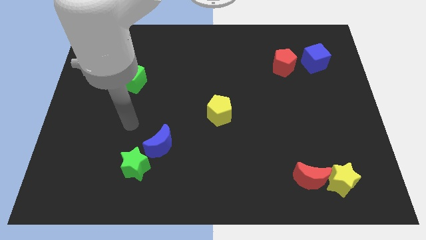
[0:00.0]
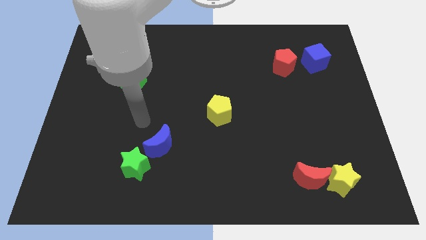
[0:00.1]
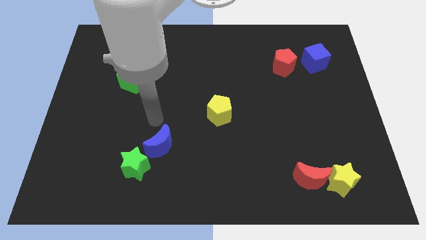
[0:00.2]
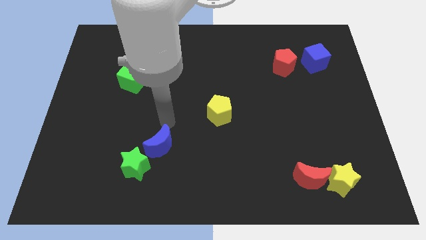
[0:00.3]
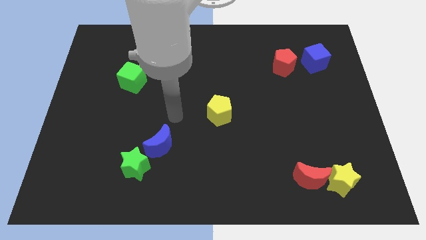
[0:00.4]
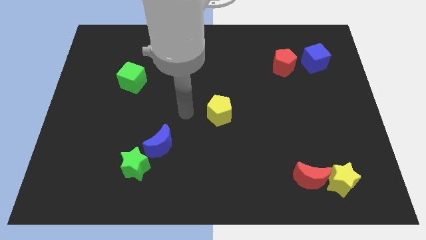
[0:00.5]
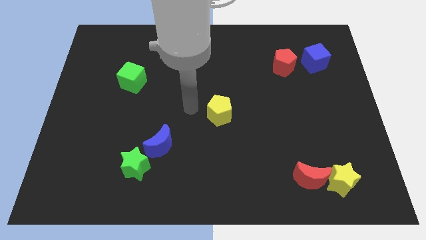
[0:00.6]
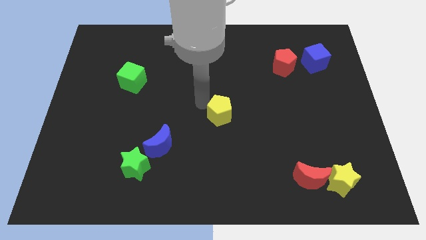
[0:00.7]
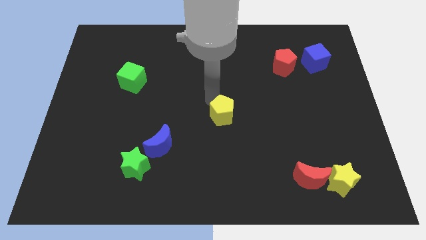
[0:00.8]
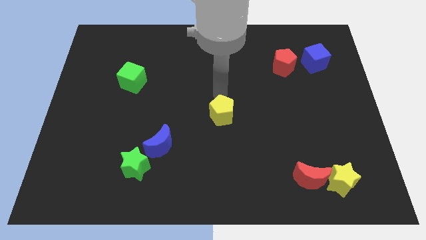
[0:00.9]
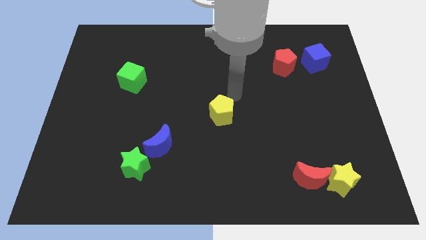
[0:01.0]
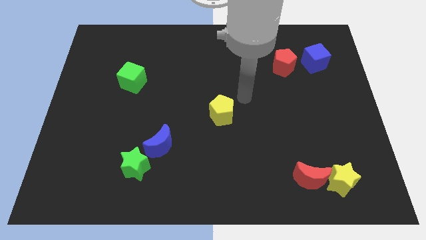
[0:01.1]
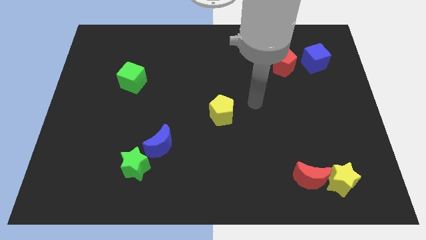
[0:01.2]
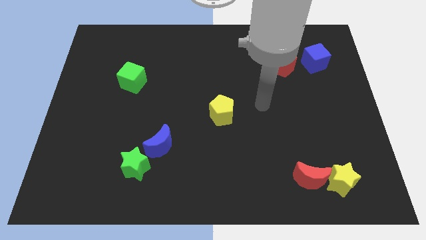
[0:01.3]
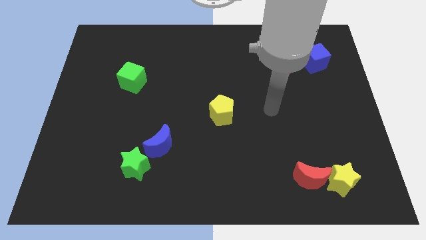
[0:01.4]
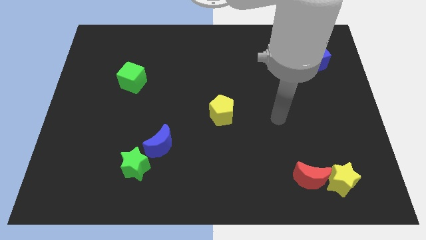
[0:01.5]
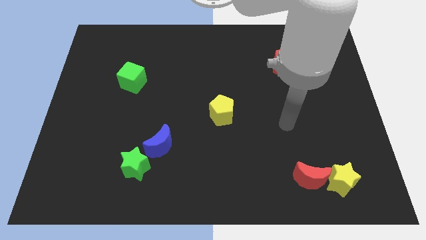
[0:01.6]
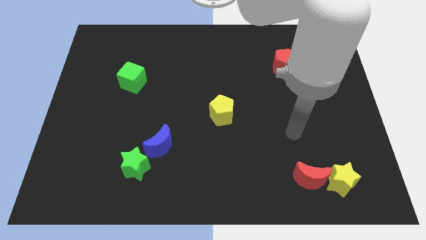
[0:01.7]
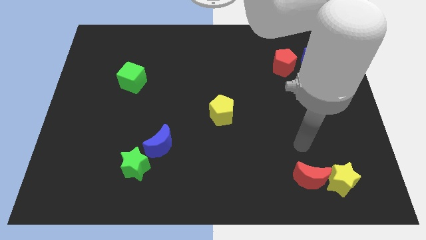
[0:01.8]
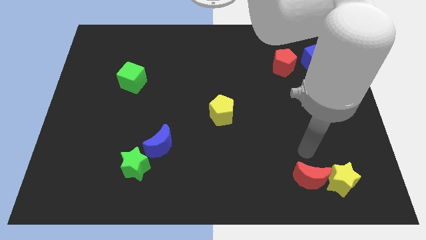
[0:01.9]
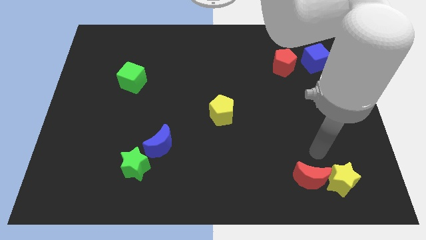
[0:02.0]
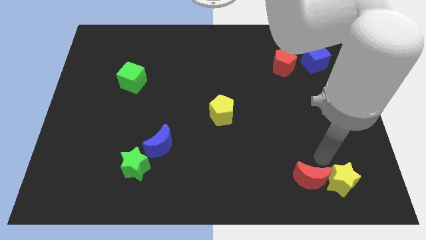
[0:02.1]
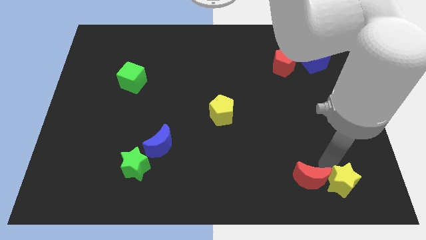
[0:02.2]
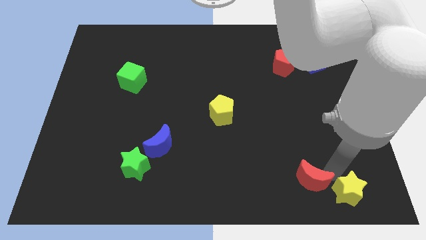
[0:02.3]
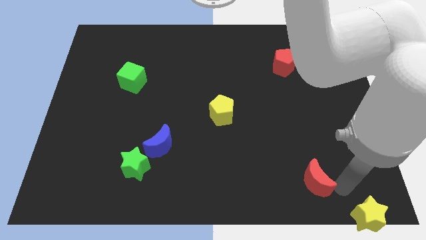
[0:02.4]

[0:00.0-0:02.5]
pull the red moon apart from the yellow star

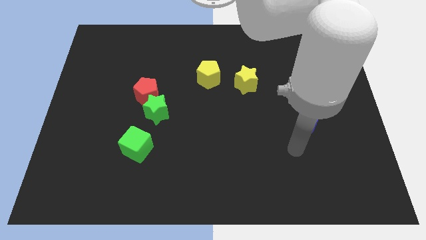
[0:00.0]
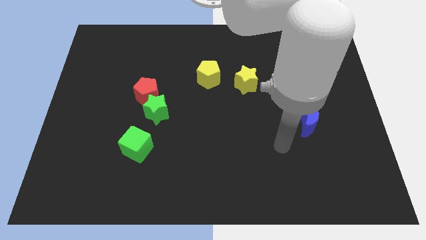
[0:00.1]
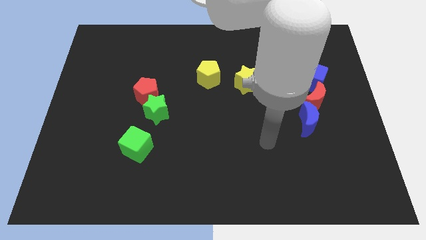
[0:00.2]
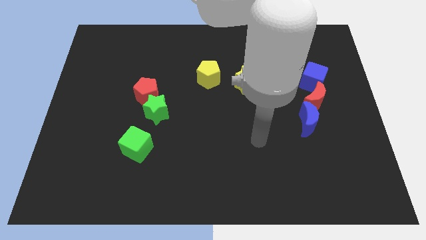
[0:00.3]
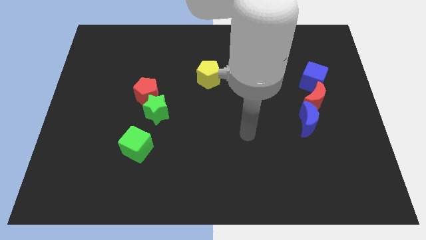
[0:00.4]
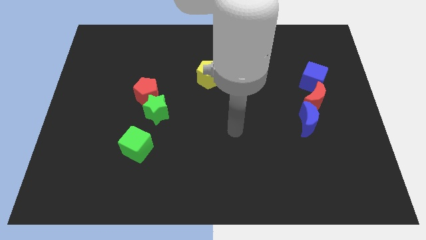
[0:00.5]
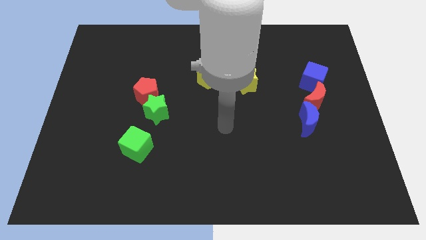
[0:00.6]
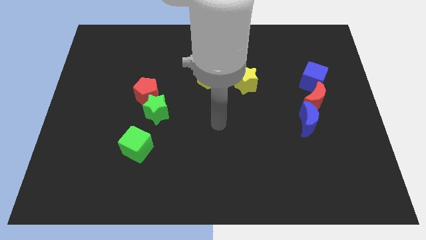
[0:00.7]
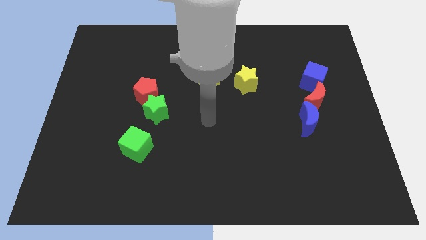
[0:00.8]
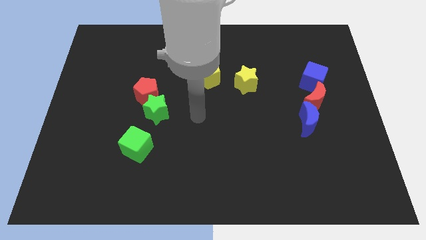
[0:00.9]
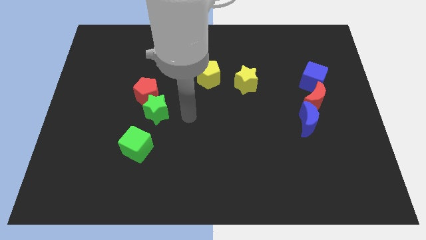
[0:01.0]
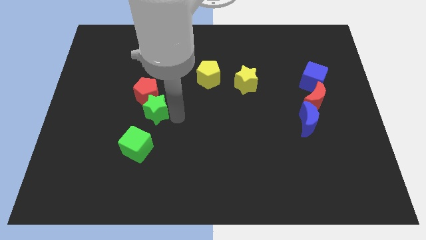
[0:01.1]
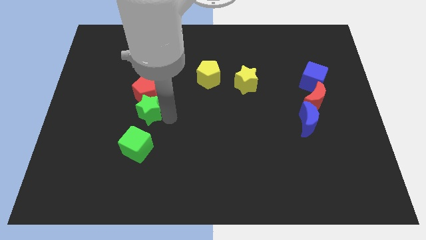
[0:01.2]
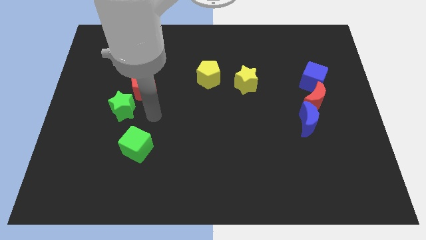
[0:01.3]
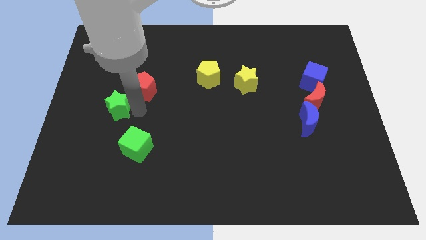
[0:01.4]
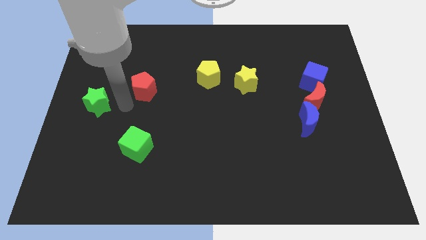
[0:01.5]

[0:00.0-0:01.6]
separate the red pentagon from the green star

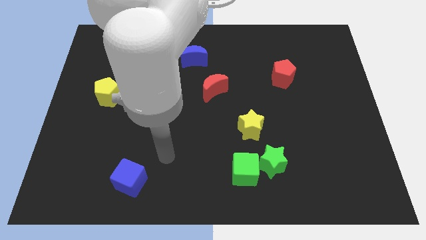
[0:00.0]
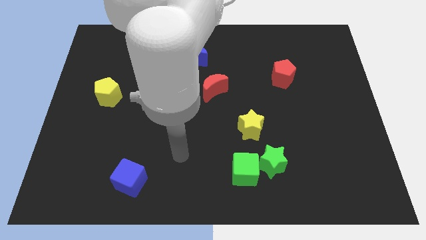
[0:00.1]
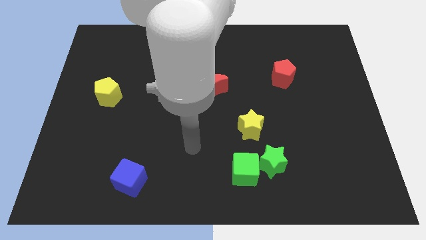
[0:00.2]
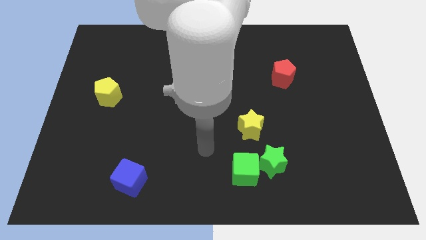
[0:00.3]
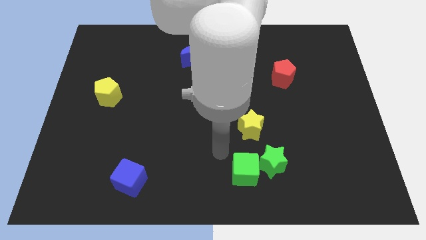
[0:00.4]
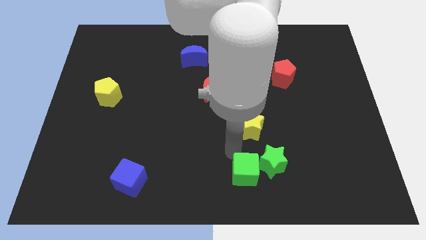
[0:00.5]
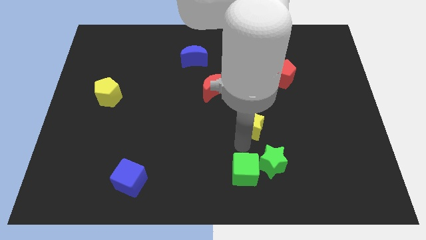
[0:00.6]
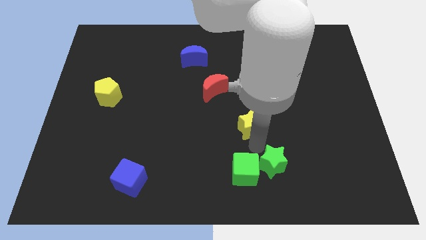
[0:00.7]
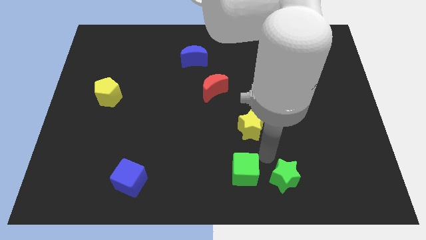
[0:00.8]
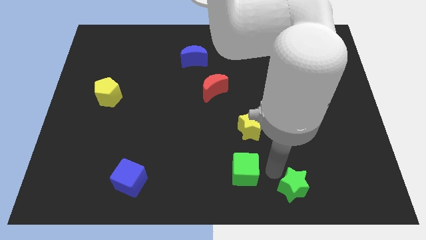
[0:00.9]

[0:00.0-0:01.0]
pull the green cube apart from the green star

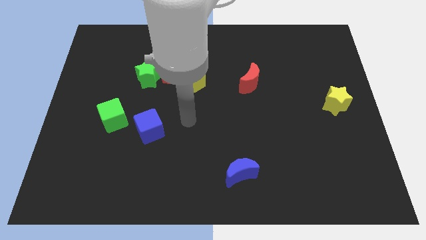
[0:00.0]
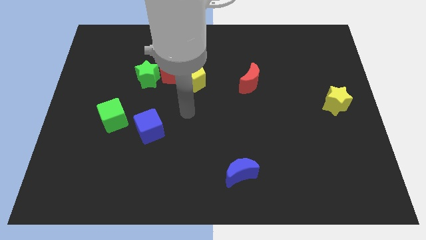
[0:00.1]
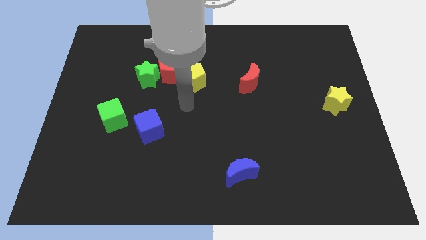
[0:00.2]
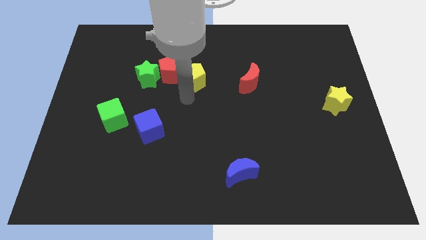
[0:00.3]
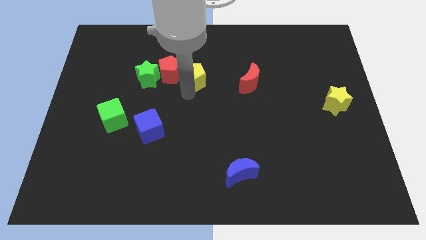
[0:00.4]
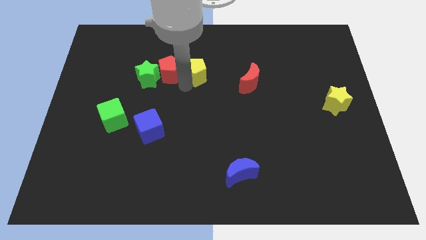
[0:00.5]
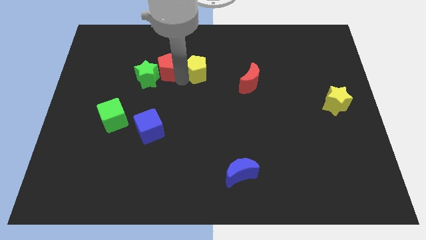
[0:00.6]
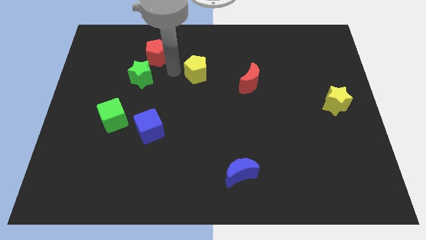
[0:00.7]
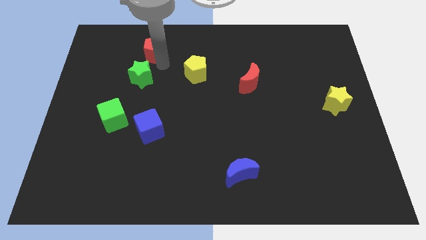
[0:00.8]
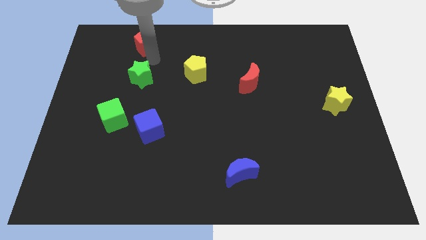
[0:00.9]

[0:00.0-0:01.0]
separate the green star from the red pentagon

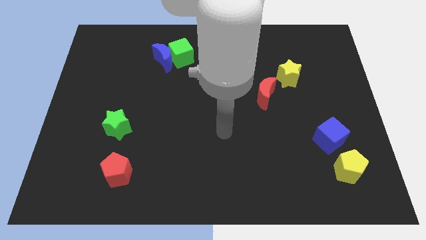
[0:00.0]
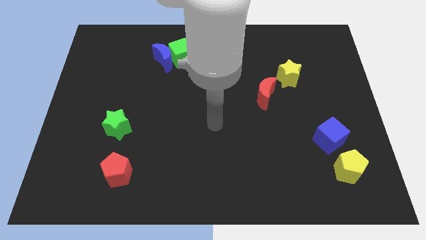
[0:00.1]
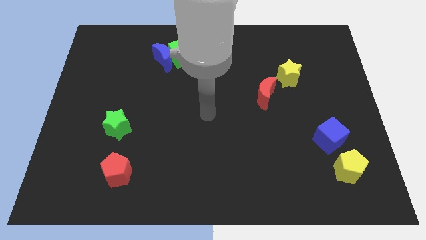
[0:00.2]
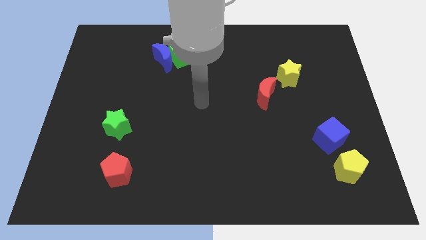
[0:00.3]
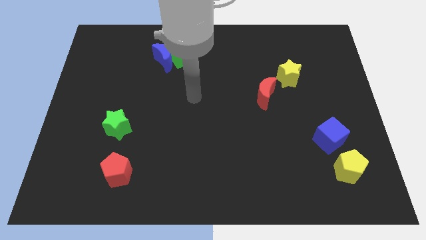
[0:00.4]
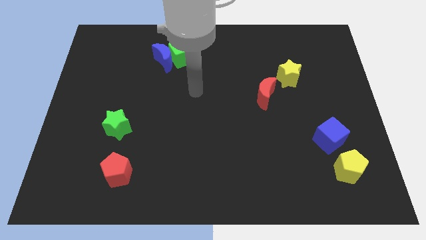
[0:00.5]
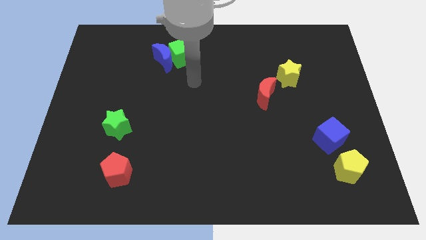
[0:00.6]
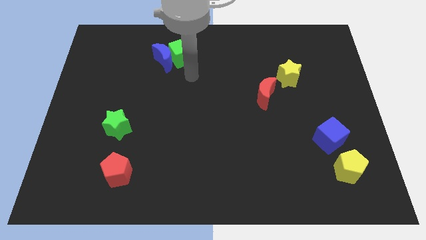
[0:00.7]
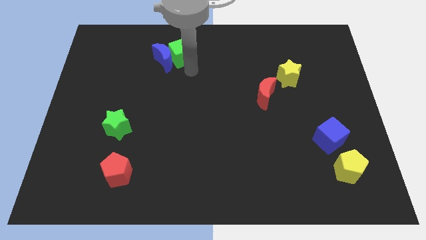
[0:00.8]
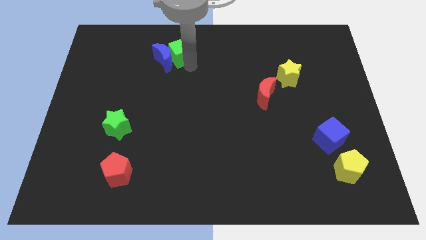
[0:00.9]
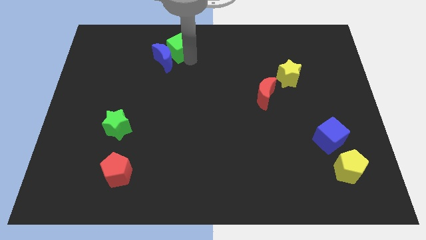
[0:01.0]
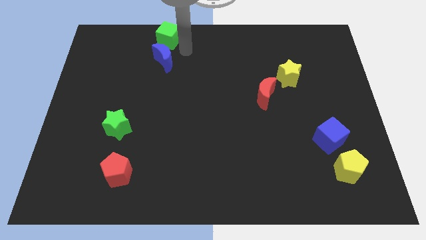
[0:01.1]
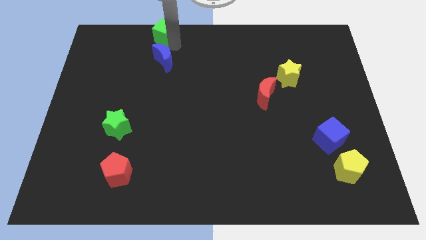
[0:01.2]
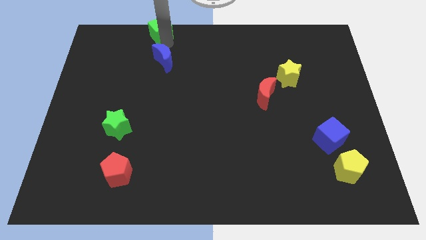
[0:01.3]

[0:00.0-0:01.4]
move the blue moon away from the green cube

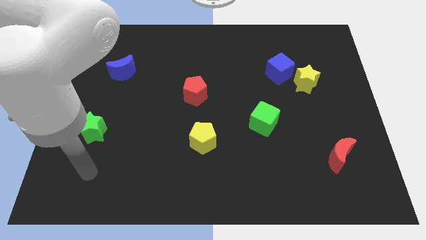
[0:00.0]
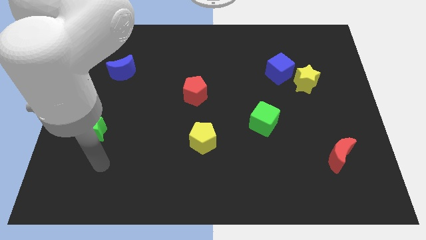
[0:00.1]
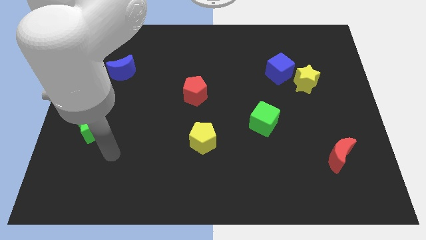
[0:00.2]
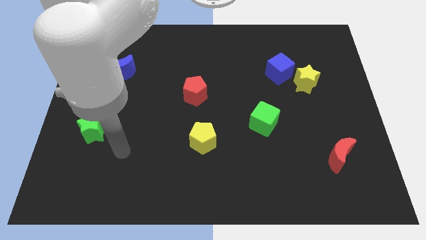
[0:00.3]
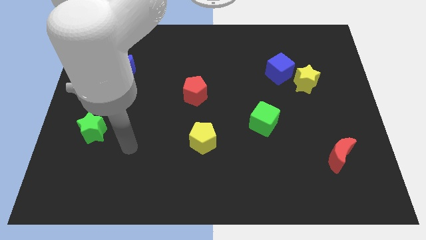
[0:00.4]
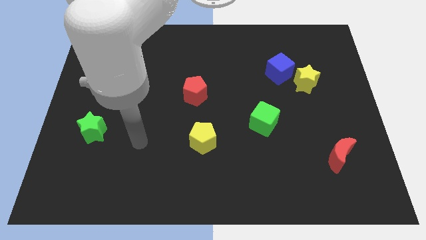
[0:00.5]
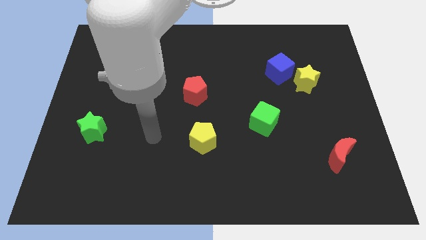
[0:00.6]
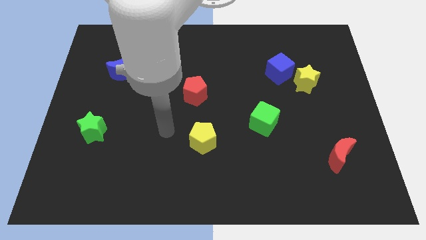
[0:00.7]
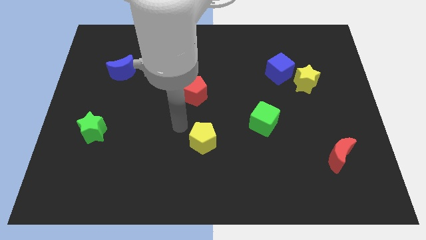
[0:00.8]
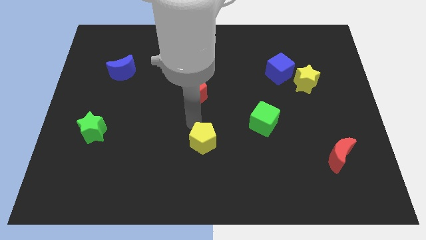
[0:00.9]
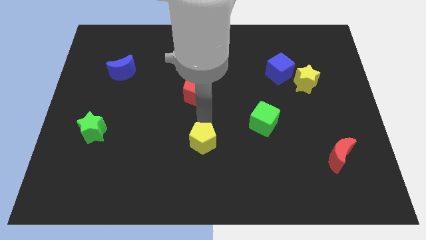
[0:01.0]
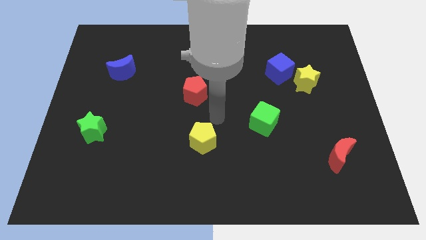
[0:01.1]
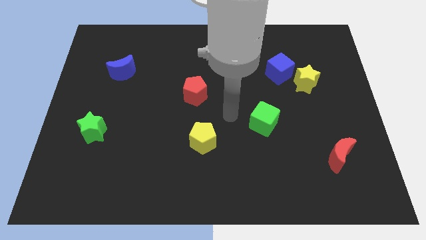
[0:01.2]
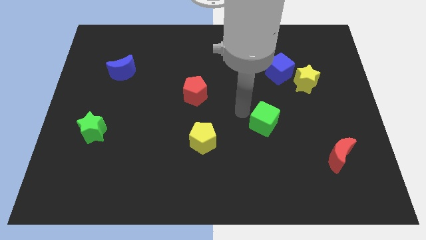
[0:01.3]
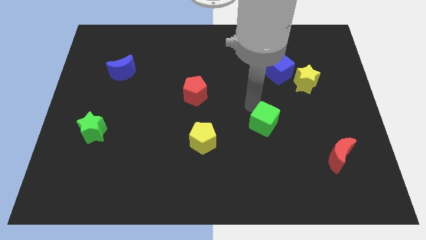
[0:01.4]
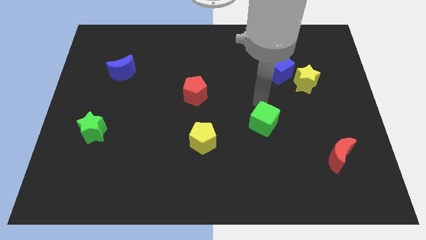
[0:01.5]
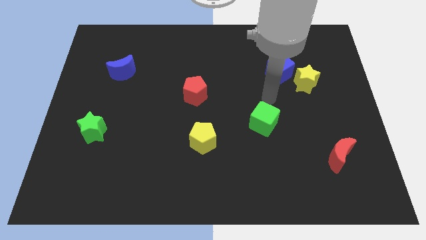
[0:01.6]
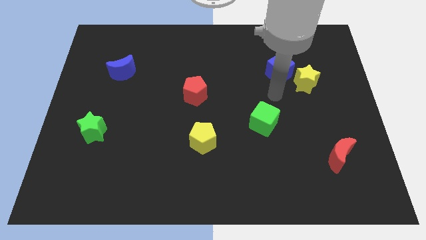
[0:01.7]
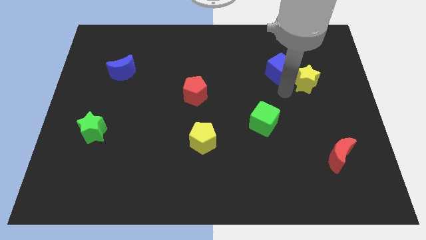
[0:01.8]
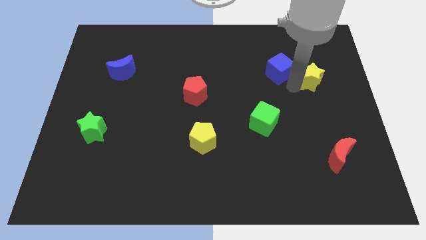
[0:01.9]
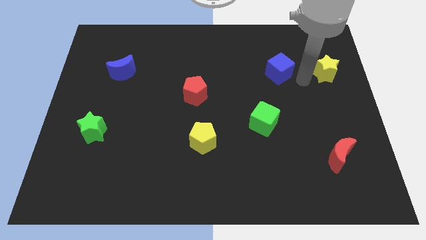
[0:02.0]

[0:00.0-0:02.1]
move the blue cube away from the yellow star
